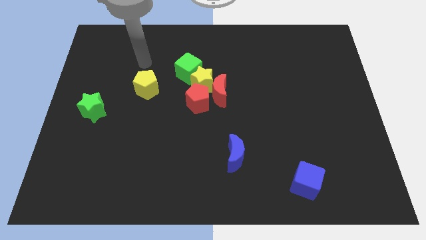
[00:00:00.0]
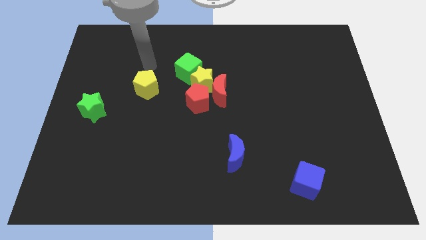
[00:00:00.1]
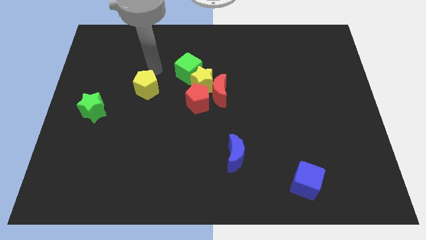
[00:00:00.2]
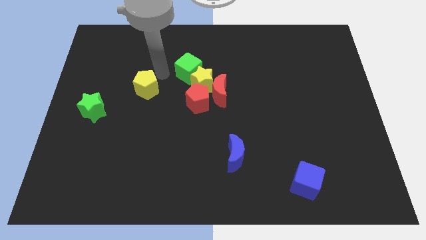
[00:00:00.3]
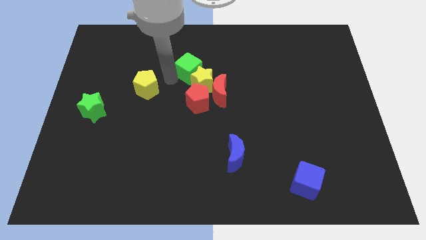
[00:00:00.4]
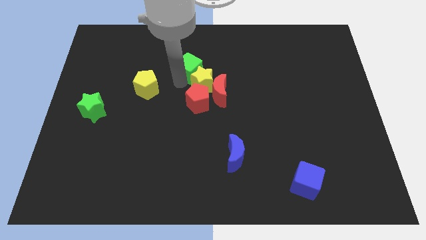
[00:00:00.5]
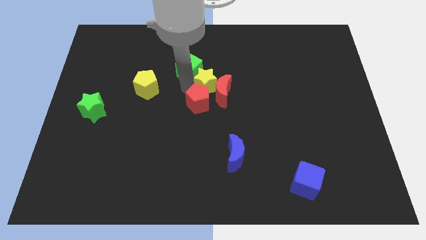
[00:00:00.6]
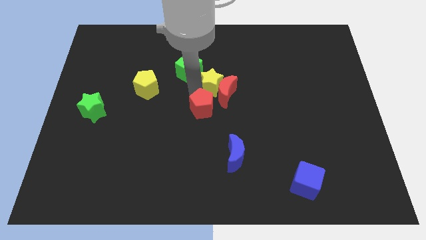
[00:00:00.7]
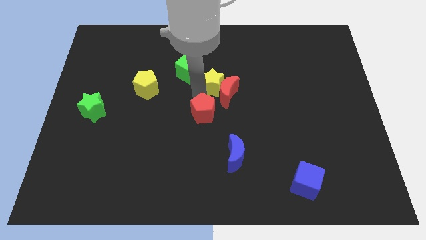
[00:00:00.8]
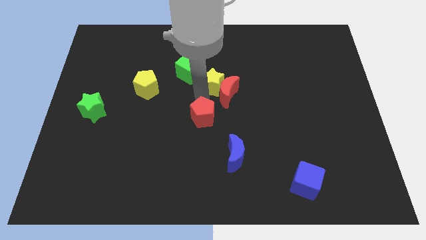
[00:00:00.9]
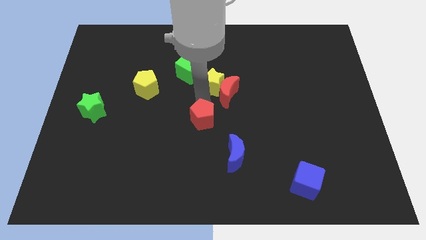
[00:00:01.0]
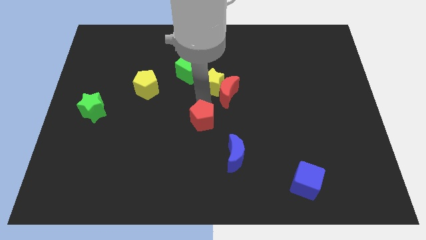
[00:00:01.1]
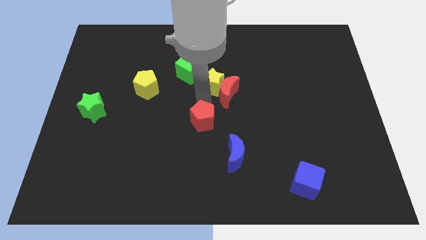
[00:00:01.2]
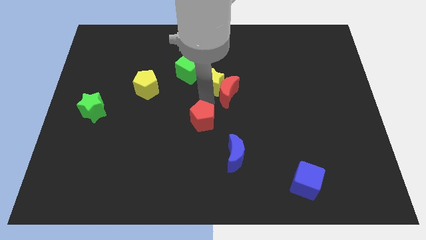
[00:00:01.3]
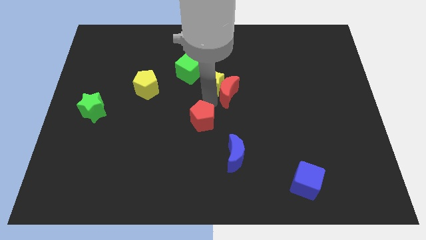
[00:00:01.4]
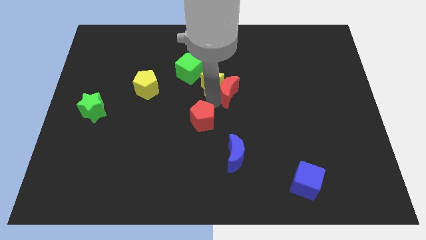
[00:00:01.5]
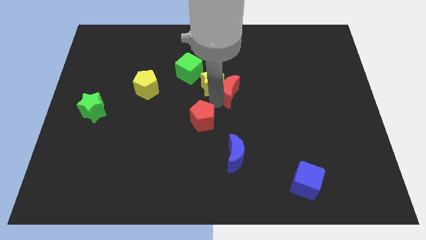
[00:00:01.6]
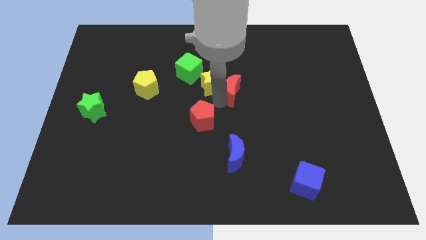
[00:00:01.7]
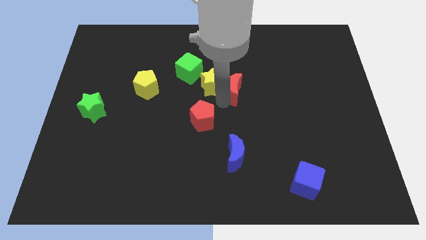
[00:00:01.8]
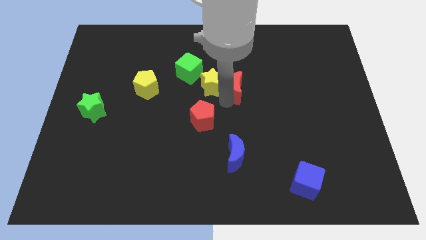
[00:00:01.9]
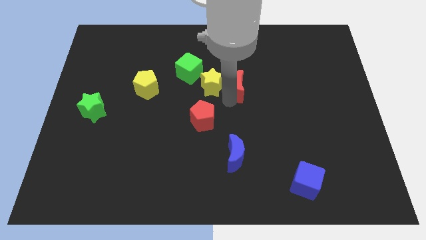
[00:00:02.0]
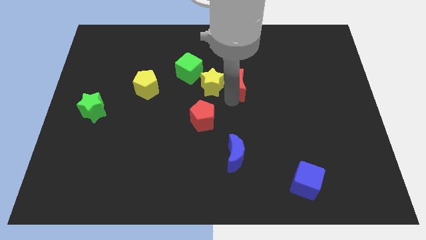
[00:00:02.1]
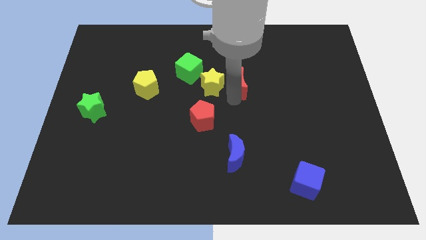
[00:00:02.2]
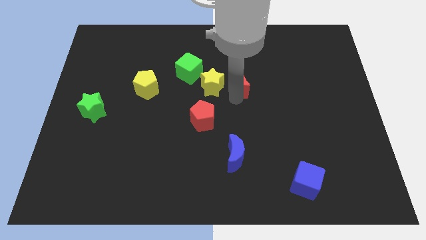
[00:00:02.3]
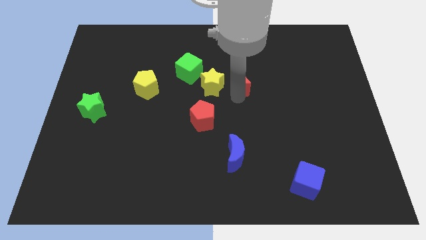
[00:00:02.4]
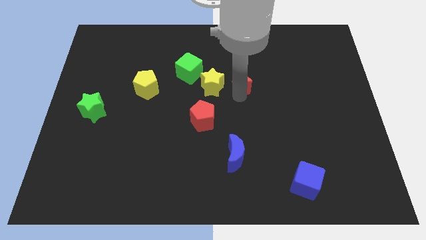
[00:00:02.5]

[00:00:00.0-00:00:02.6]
pull the red moon apart from the yellow star and red pentagon

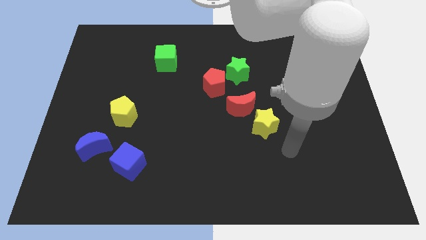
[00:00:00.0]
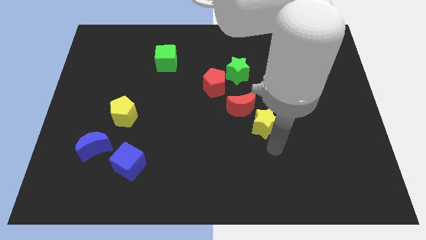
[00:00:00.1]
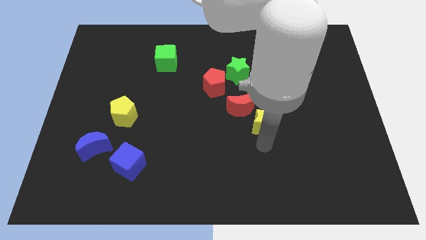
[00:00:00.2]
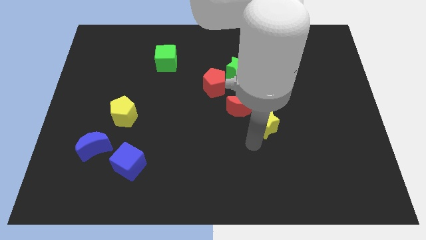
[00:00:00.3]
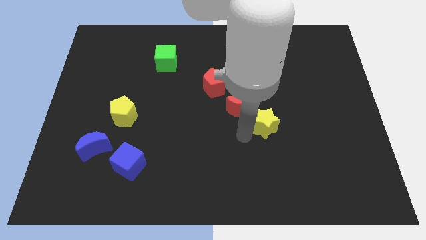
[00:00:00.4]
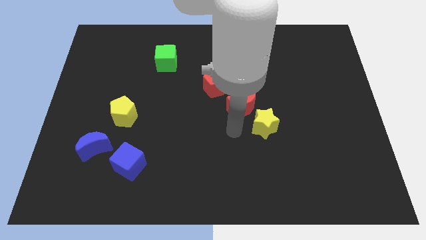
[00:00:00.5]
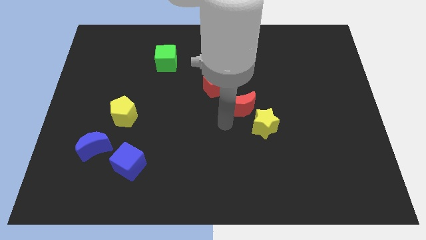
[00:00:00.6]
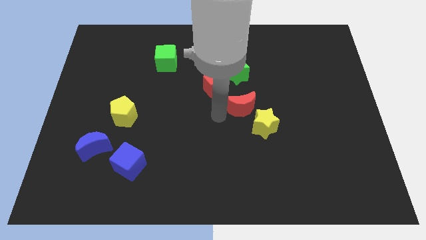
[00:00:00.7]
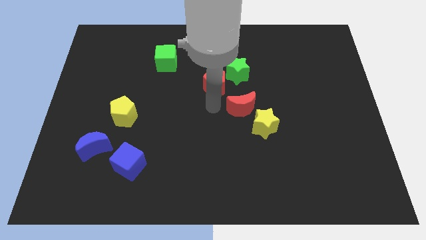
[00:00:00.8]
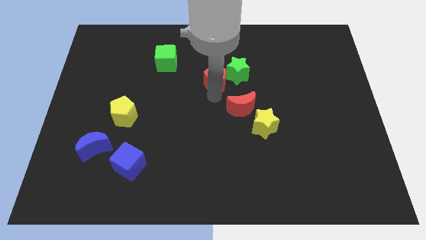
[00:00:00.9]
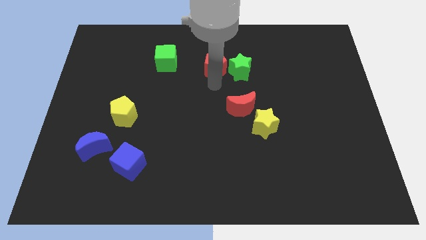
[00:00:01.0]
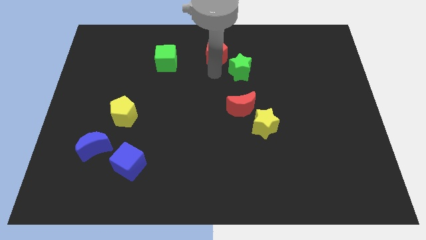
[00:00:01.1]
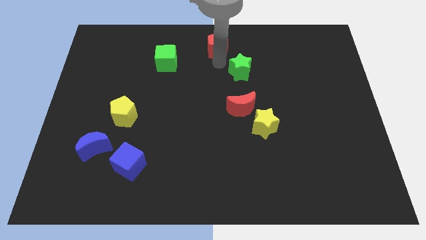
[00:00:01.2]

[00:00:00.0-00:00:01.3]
separate the green star from the red pentagon

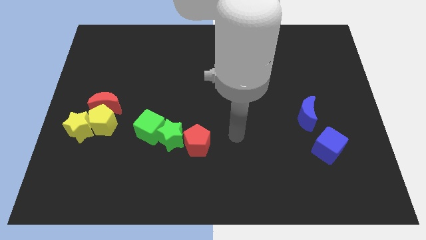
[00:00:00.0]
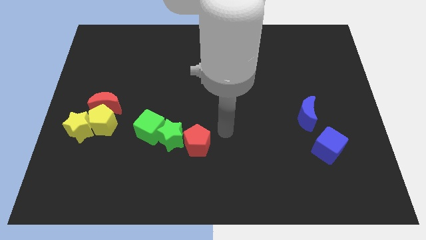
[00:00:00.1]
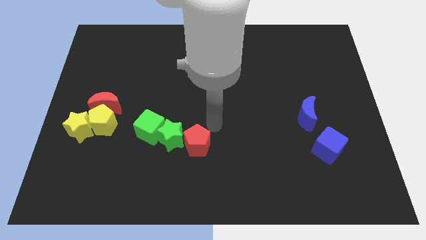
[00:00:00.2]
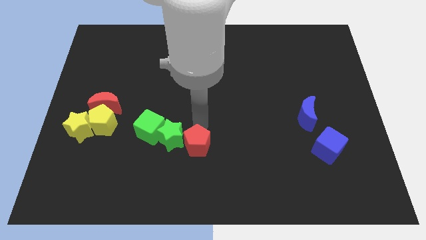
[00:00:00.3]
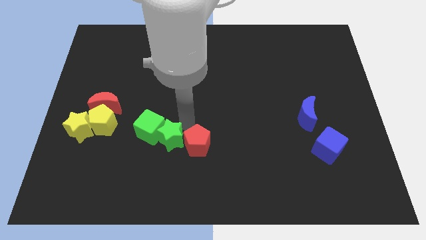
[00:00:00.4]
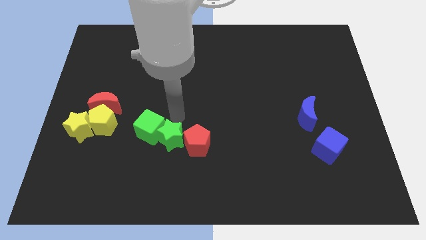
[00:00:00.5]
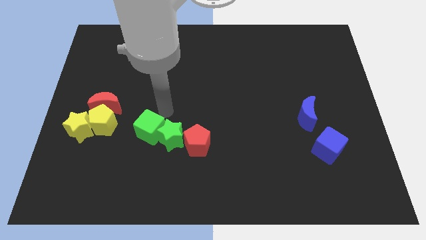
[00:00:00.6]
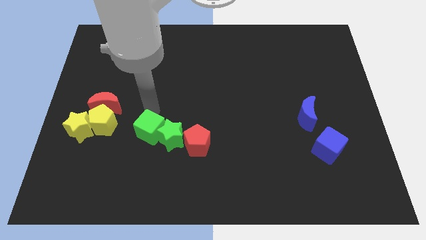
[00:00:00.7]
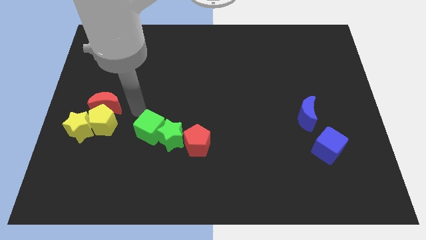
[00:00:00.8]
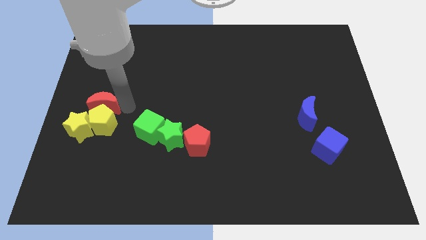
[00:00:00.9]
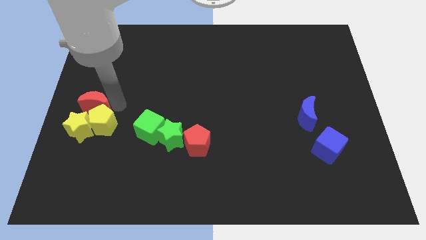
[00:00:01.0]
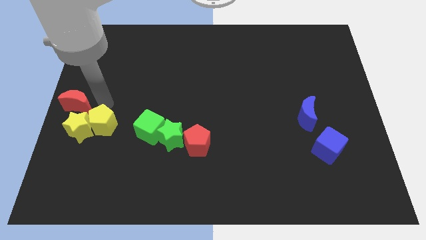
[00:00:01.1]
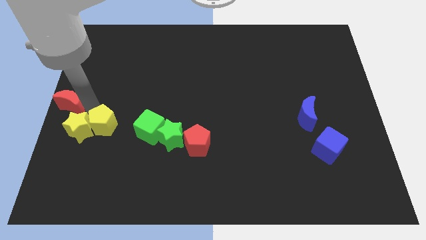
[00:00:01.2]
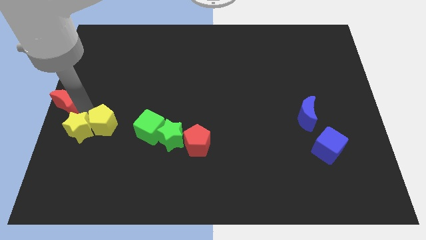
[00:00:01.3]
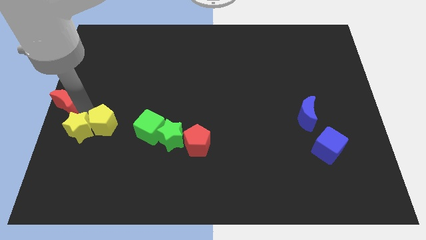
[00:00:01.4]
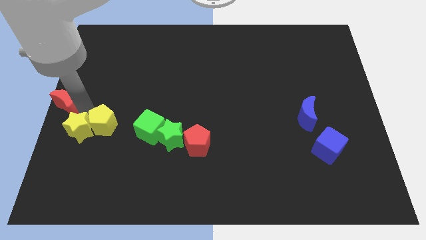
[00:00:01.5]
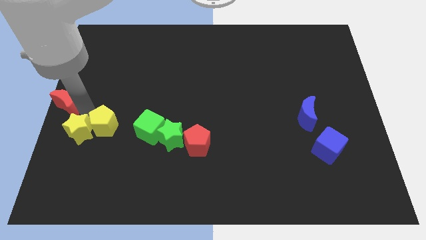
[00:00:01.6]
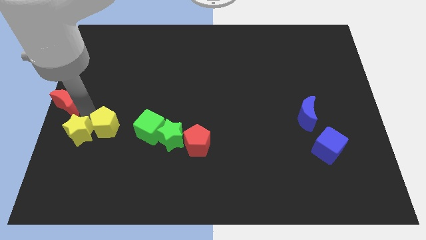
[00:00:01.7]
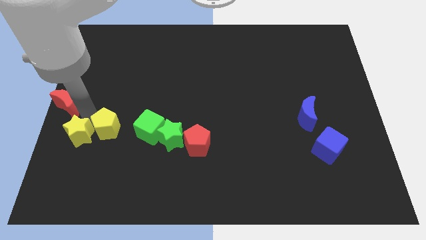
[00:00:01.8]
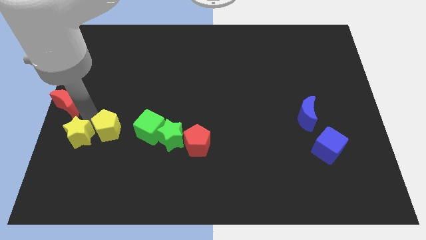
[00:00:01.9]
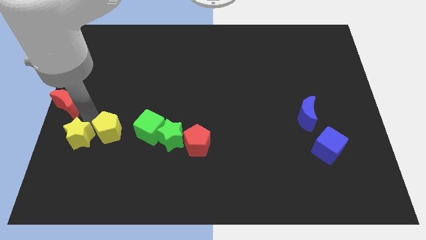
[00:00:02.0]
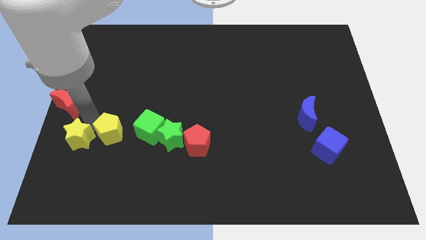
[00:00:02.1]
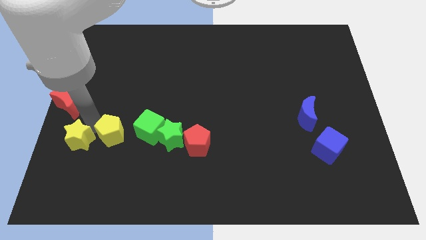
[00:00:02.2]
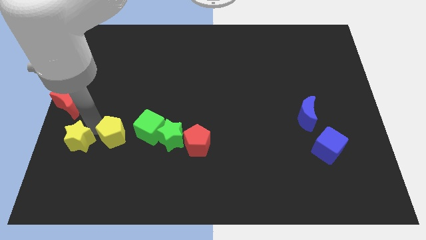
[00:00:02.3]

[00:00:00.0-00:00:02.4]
separate the yellow pentagon from the yellow star and red moon

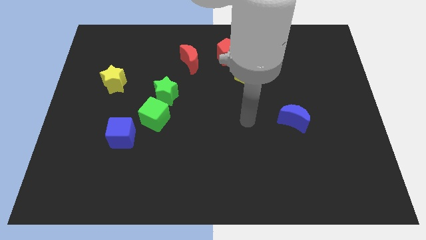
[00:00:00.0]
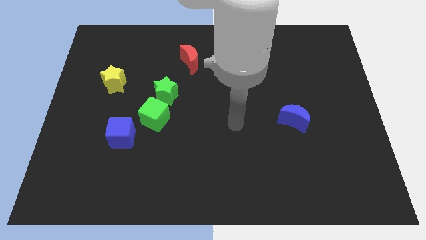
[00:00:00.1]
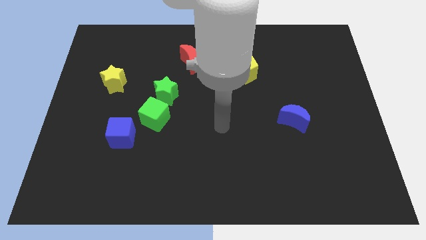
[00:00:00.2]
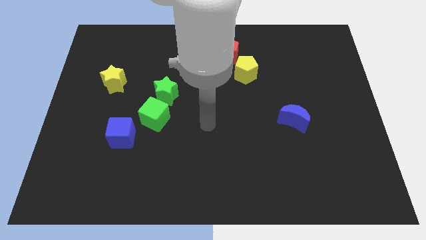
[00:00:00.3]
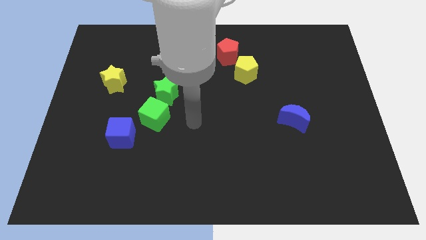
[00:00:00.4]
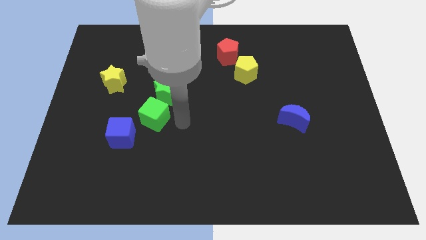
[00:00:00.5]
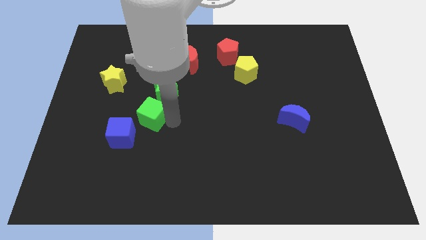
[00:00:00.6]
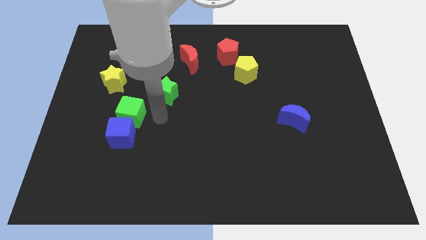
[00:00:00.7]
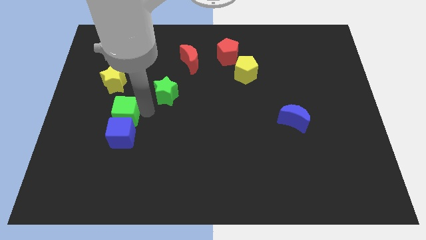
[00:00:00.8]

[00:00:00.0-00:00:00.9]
pull the green star apart from the green cube

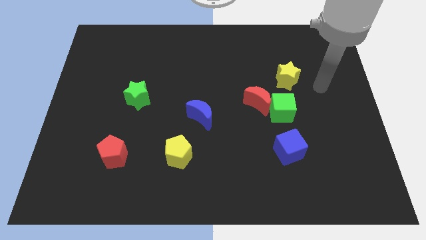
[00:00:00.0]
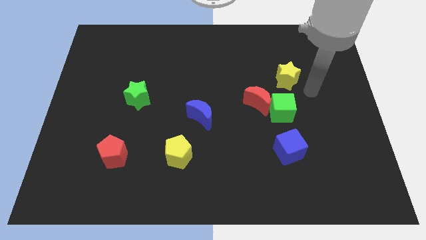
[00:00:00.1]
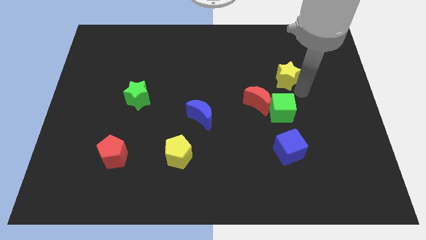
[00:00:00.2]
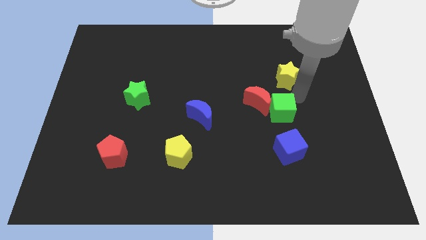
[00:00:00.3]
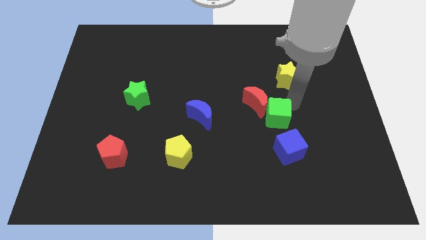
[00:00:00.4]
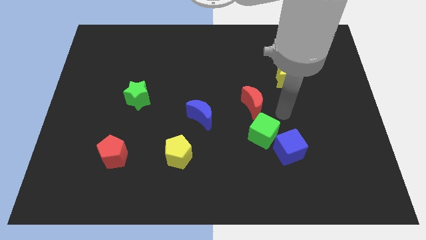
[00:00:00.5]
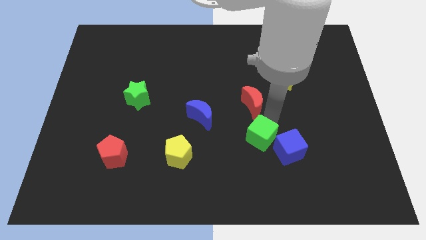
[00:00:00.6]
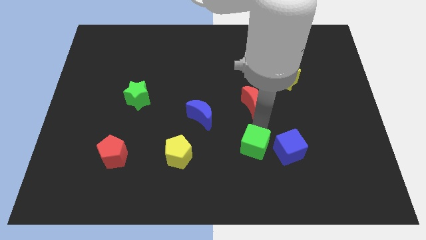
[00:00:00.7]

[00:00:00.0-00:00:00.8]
move the red moon away from the green cube

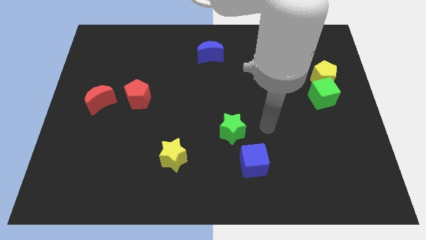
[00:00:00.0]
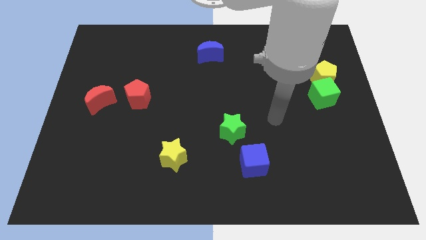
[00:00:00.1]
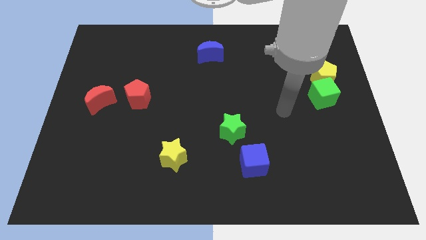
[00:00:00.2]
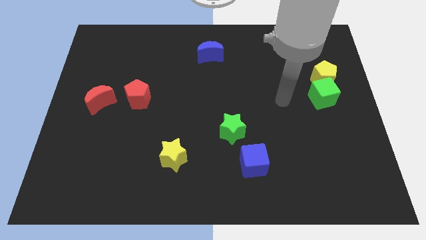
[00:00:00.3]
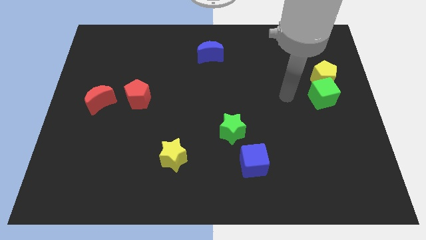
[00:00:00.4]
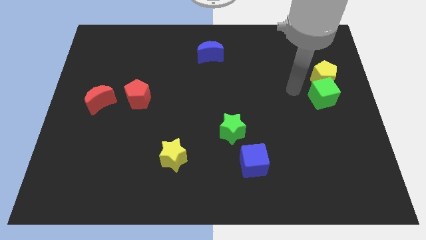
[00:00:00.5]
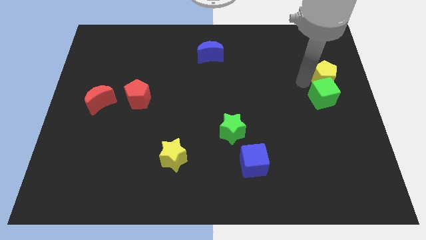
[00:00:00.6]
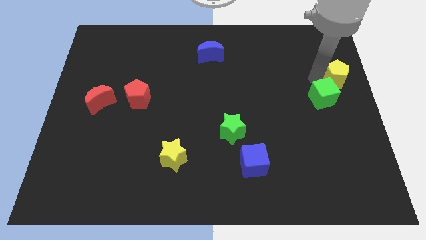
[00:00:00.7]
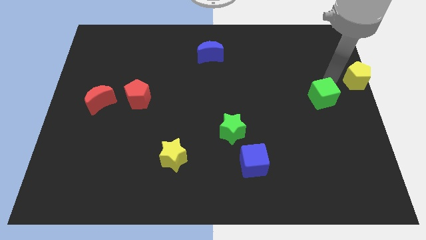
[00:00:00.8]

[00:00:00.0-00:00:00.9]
separate the green cube from the yellow pentagon

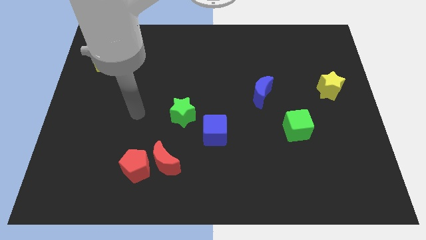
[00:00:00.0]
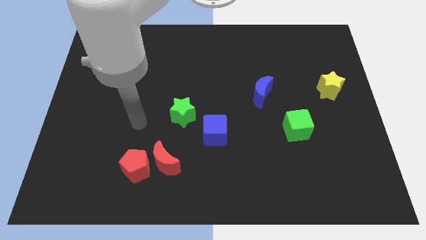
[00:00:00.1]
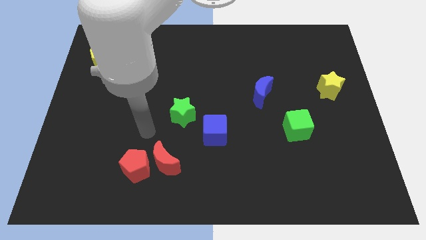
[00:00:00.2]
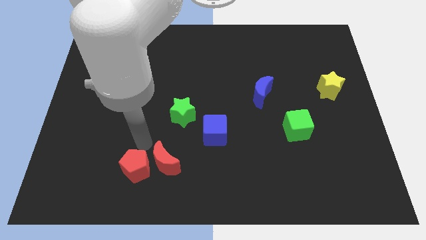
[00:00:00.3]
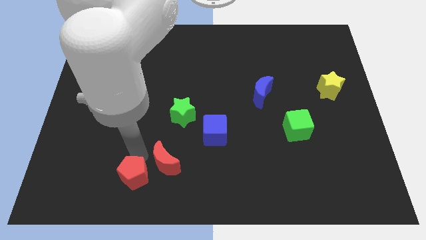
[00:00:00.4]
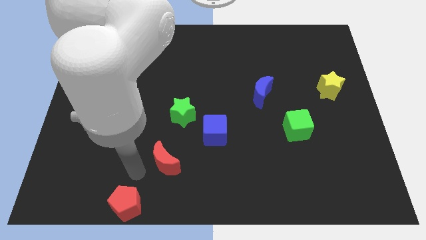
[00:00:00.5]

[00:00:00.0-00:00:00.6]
move the red moon away from the red pentagon
